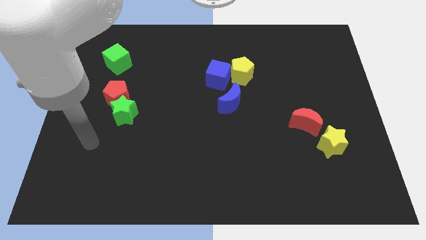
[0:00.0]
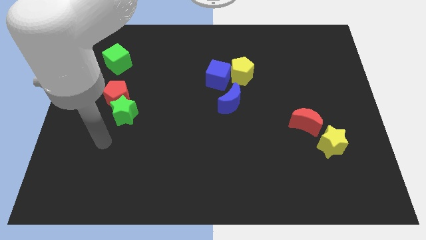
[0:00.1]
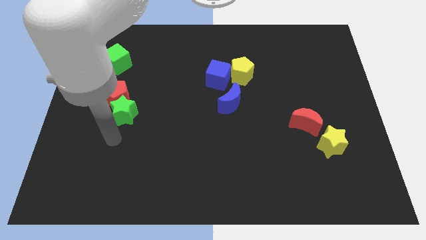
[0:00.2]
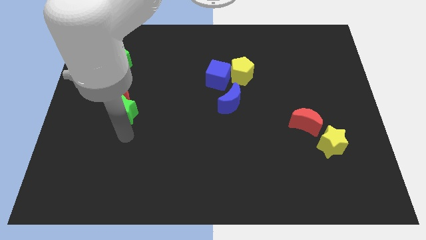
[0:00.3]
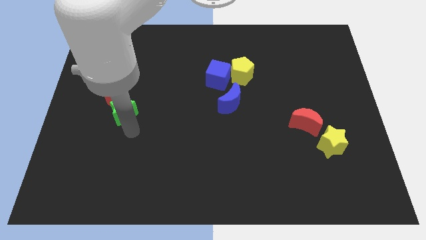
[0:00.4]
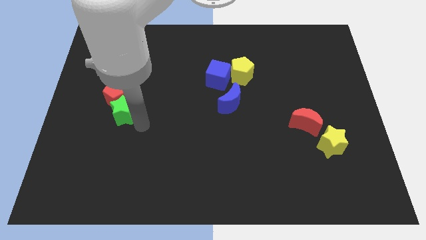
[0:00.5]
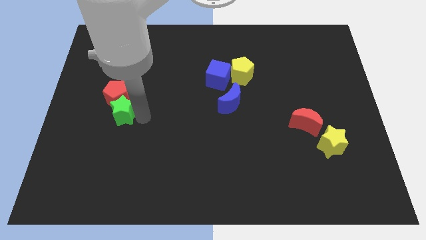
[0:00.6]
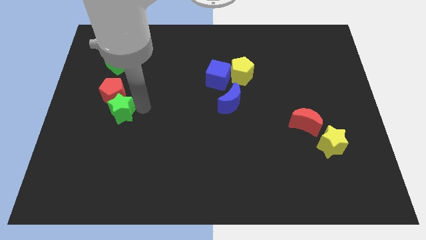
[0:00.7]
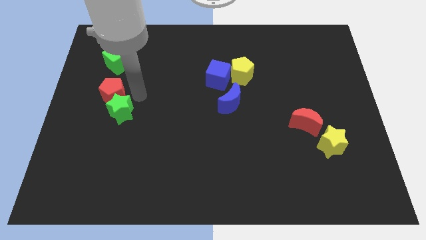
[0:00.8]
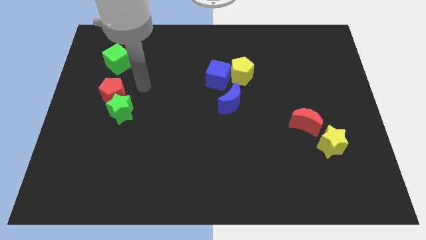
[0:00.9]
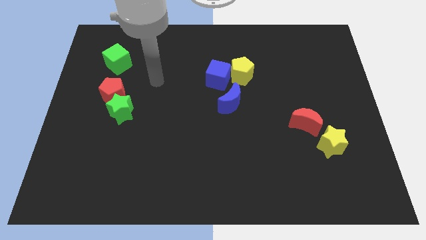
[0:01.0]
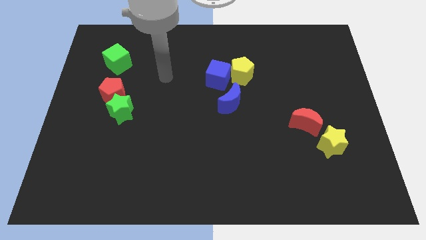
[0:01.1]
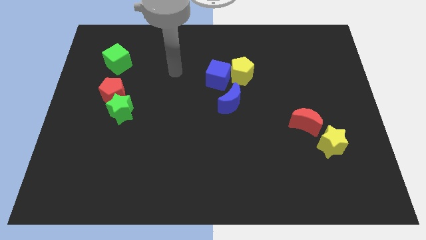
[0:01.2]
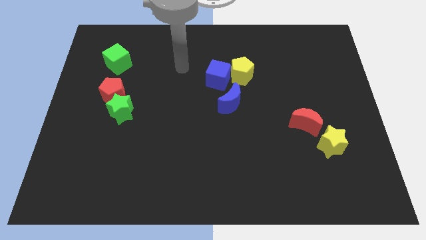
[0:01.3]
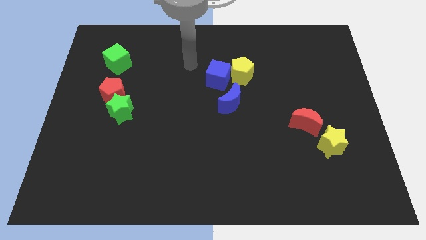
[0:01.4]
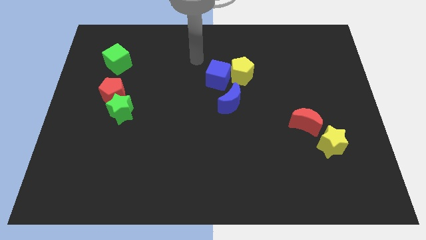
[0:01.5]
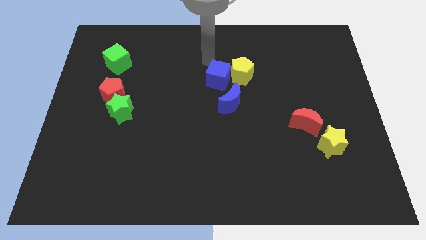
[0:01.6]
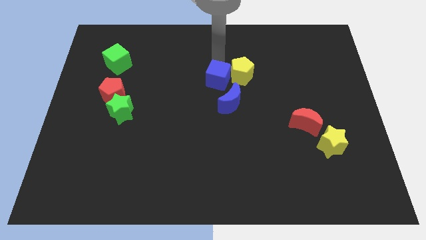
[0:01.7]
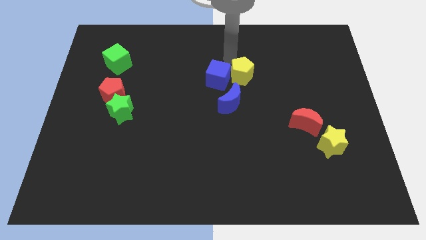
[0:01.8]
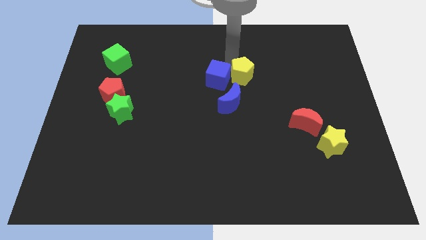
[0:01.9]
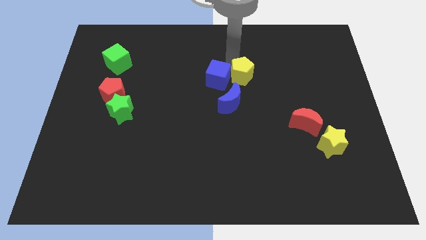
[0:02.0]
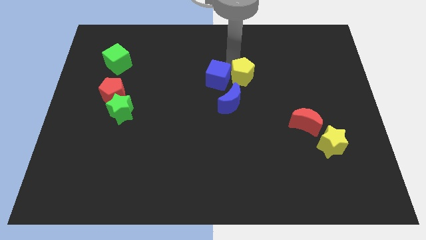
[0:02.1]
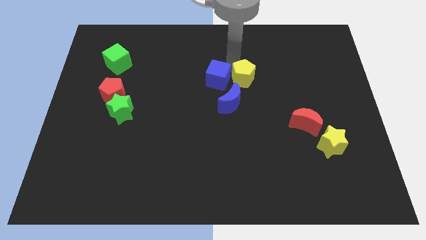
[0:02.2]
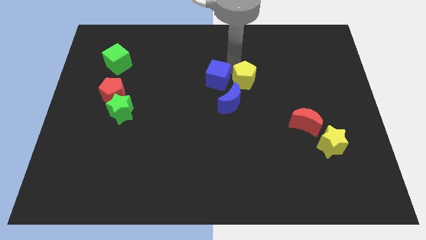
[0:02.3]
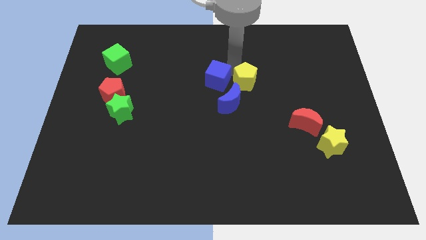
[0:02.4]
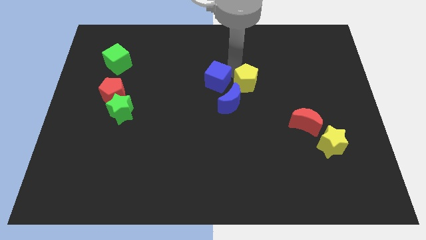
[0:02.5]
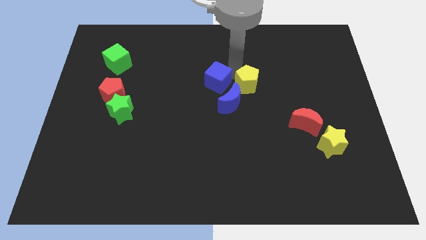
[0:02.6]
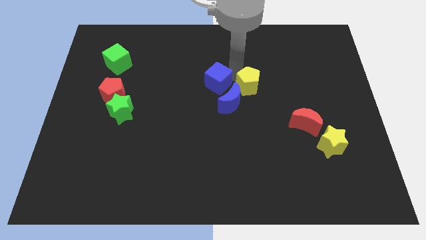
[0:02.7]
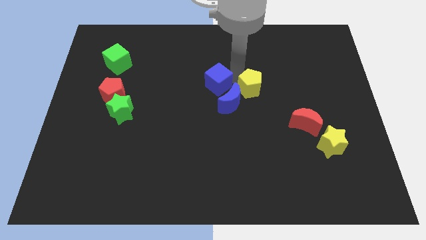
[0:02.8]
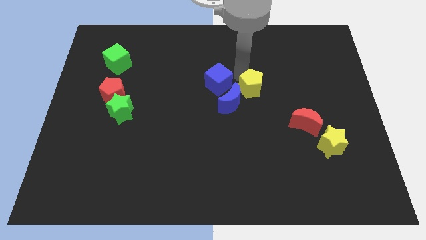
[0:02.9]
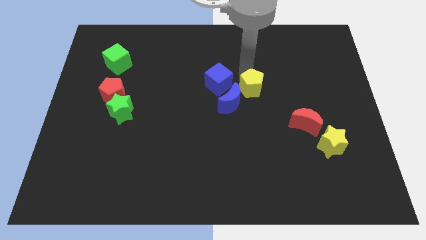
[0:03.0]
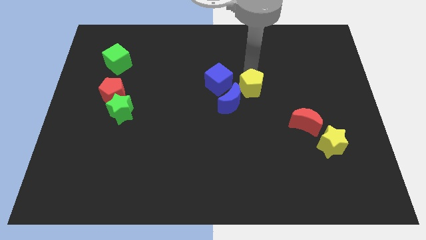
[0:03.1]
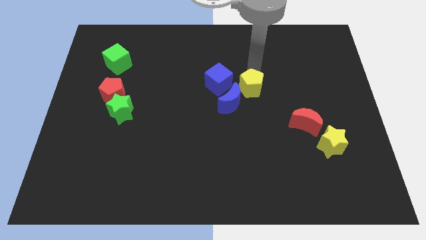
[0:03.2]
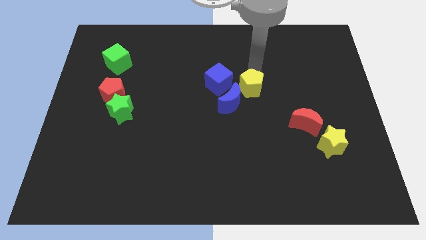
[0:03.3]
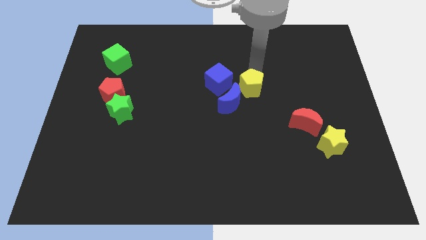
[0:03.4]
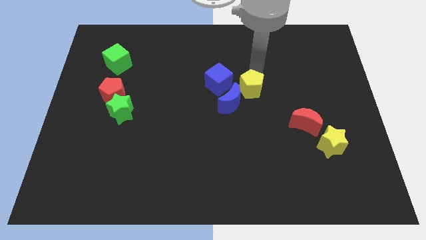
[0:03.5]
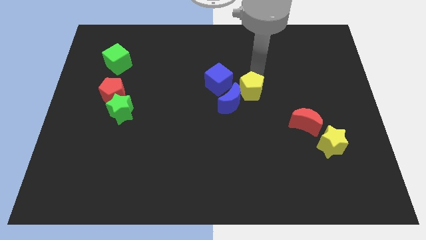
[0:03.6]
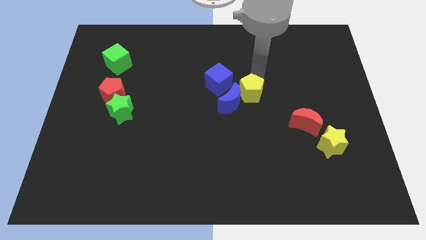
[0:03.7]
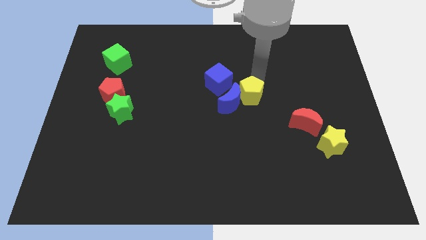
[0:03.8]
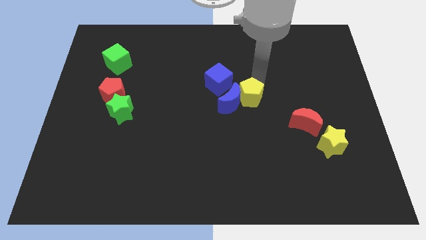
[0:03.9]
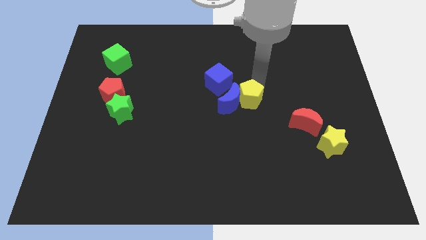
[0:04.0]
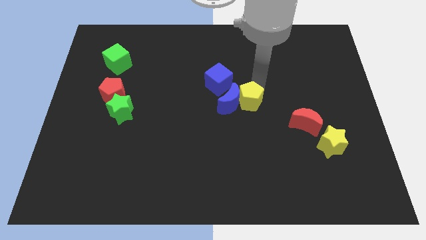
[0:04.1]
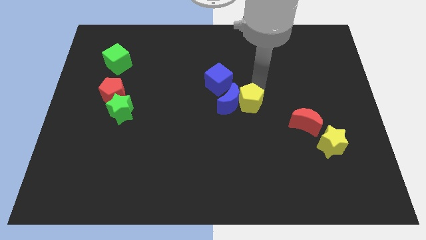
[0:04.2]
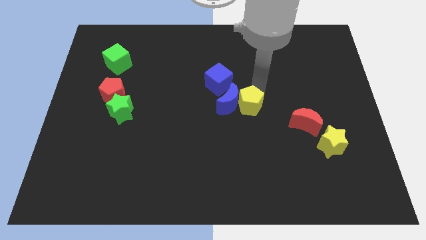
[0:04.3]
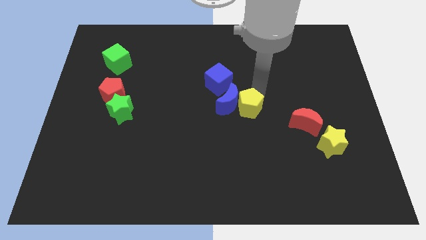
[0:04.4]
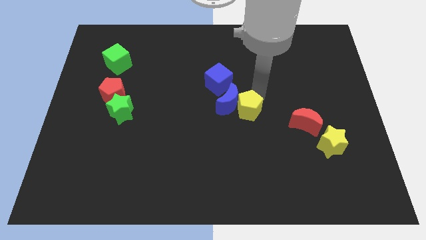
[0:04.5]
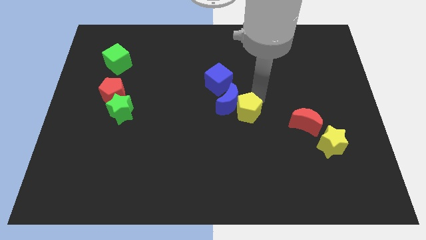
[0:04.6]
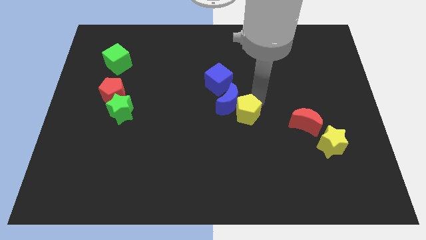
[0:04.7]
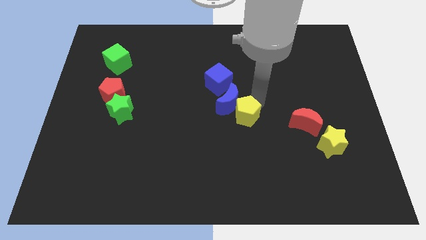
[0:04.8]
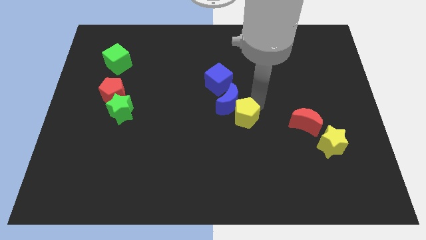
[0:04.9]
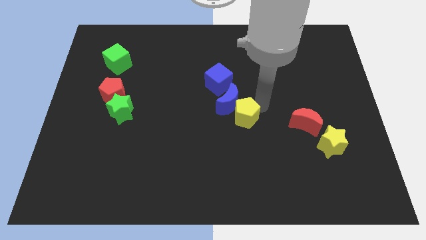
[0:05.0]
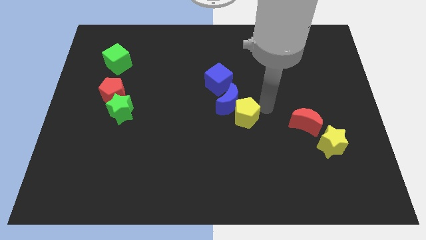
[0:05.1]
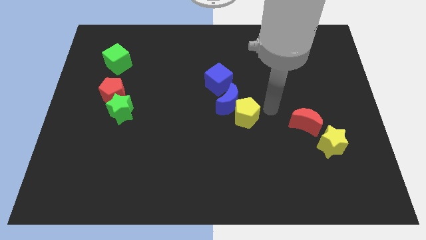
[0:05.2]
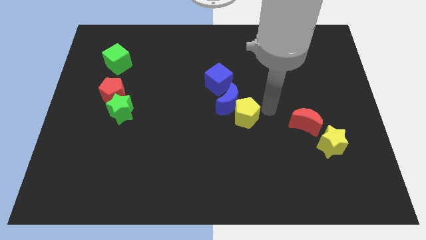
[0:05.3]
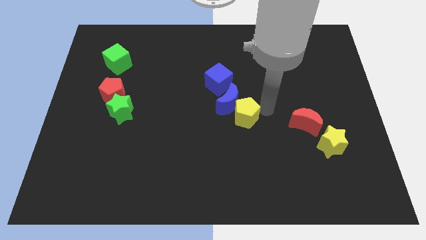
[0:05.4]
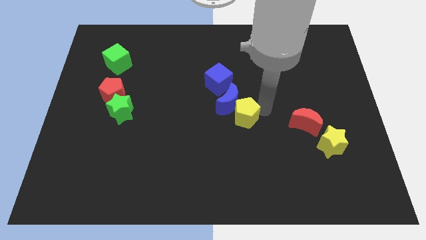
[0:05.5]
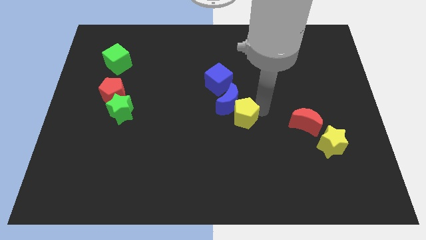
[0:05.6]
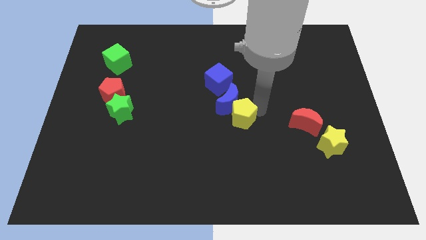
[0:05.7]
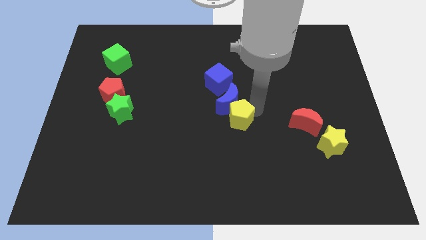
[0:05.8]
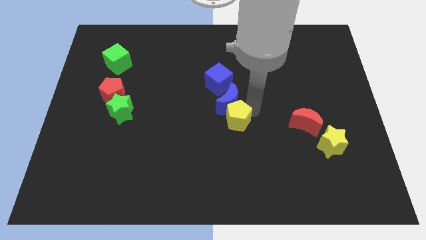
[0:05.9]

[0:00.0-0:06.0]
slide the yellow pentagon downwards and then left a little

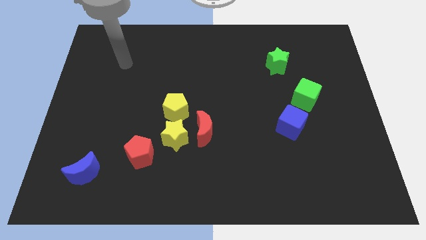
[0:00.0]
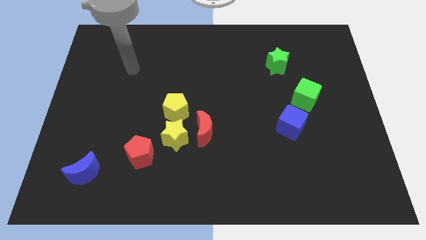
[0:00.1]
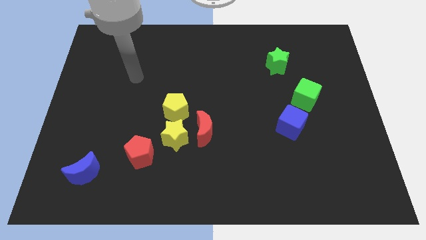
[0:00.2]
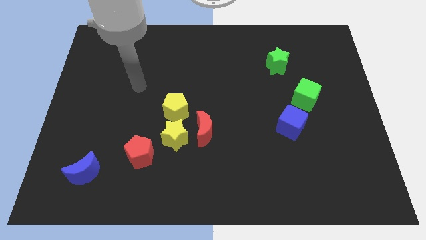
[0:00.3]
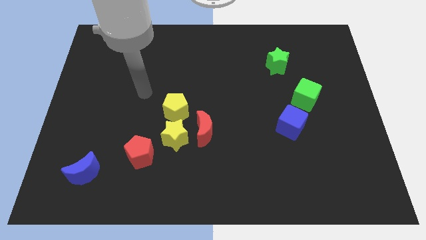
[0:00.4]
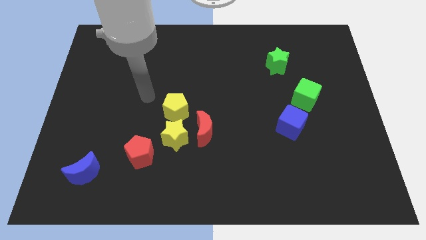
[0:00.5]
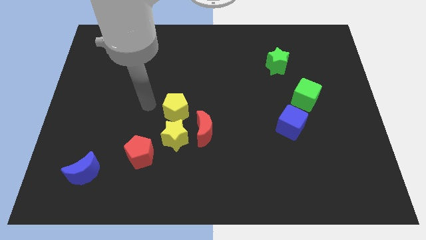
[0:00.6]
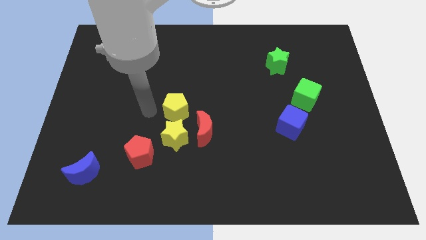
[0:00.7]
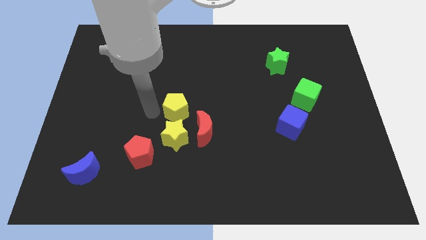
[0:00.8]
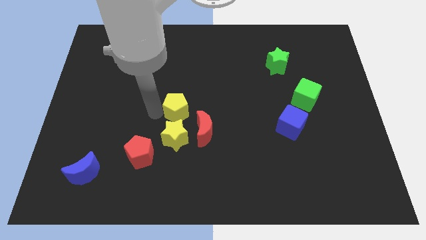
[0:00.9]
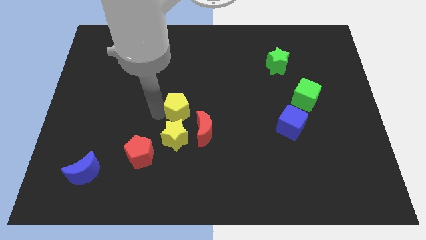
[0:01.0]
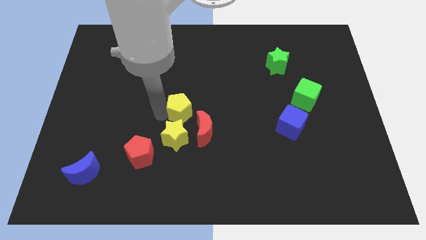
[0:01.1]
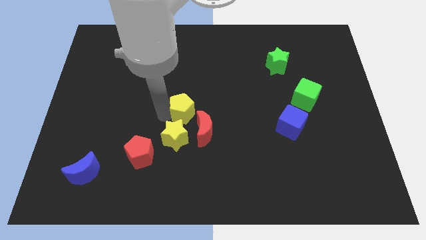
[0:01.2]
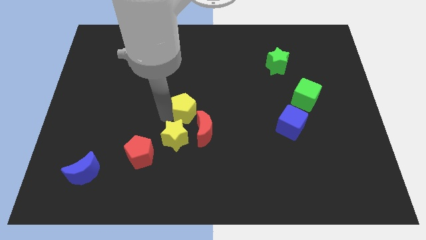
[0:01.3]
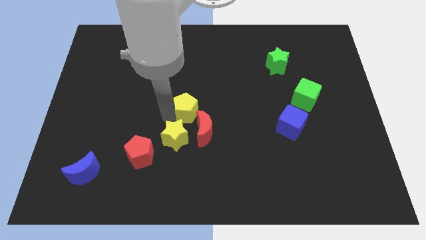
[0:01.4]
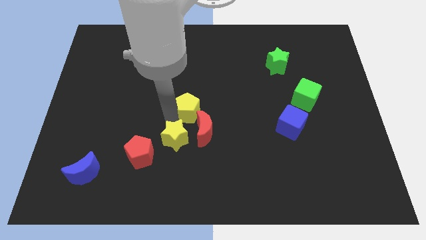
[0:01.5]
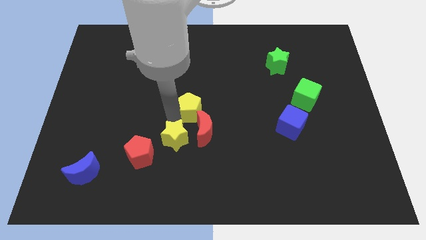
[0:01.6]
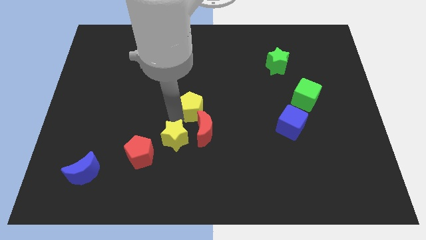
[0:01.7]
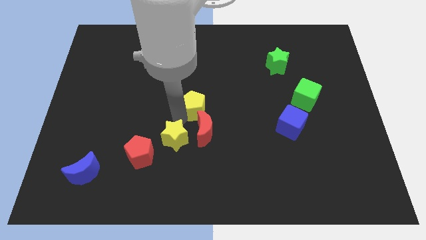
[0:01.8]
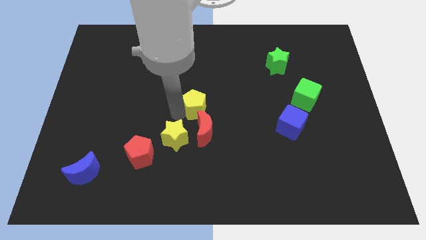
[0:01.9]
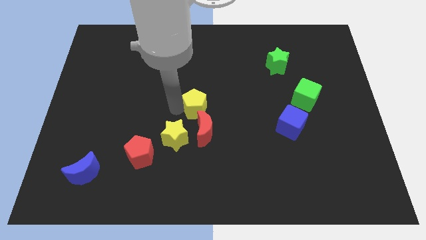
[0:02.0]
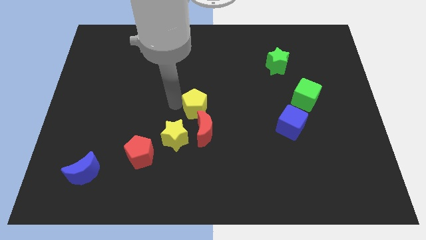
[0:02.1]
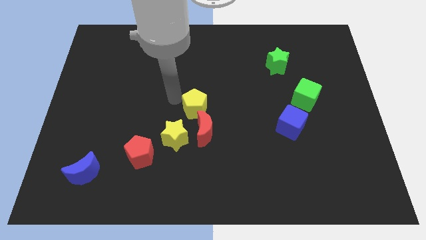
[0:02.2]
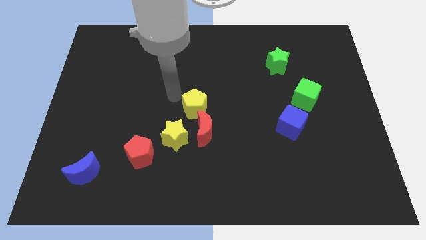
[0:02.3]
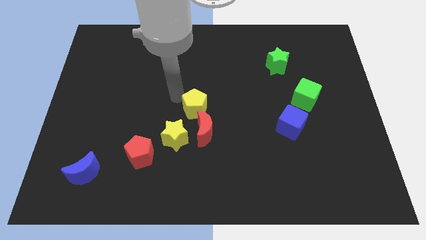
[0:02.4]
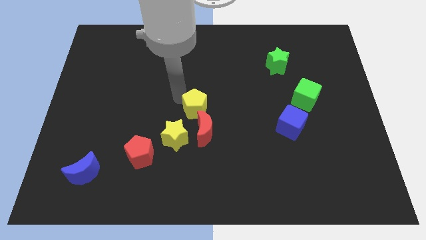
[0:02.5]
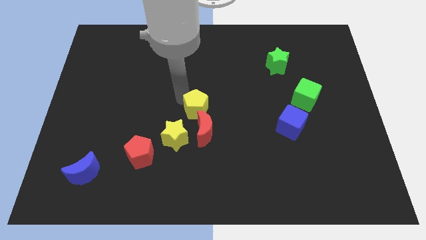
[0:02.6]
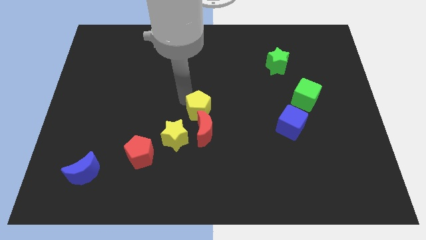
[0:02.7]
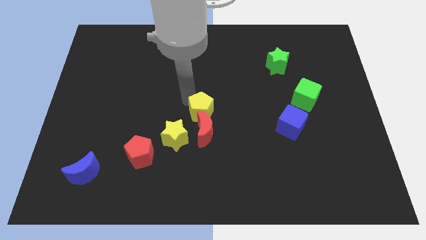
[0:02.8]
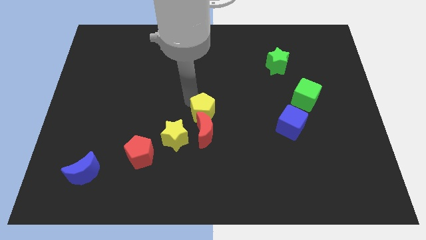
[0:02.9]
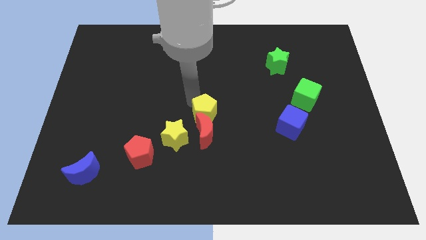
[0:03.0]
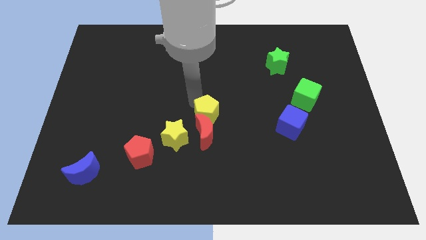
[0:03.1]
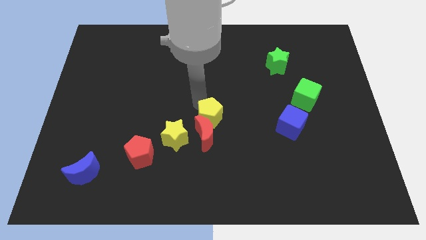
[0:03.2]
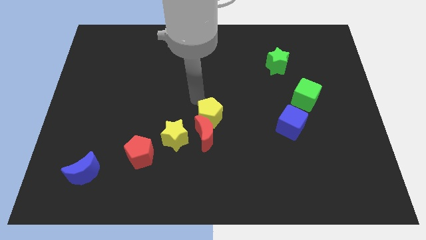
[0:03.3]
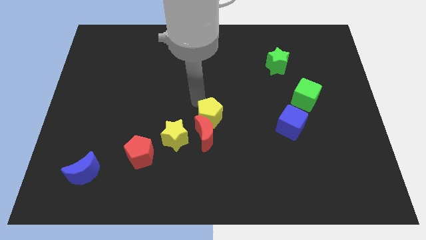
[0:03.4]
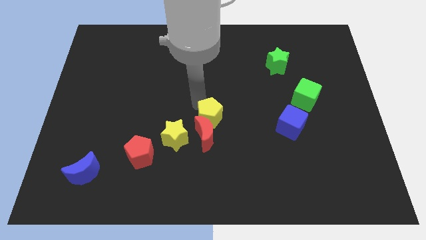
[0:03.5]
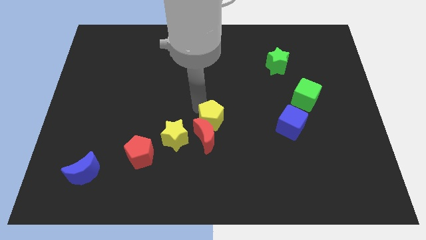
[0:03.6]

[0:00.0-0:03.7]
slightly move the yellow pentagon downwards and to the right
